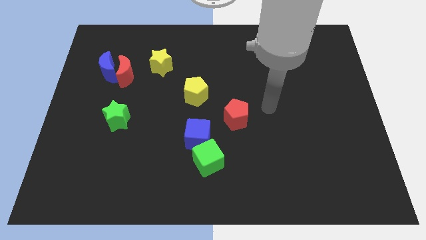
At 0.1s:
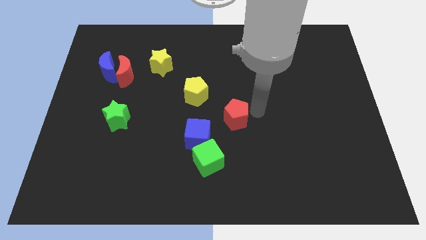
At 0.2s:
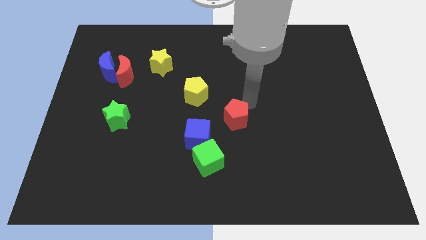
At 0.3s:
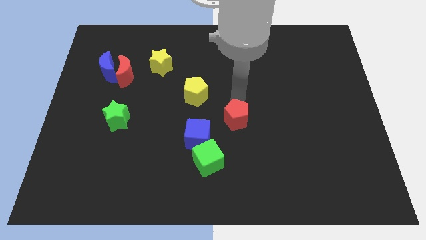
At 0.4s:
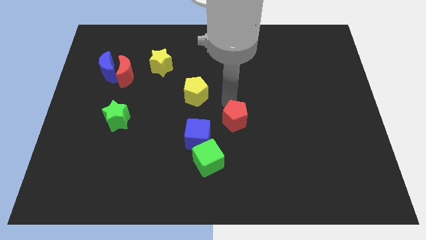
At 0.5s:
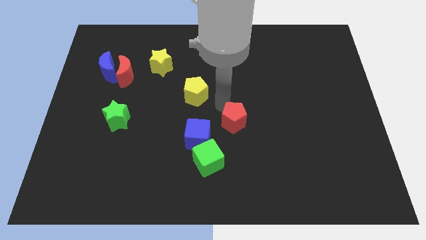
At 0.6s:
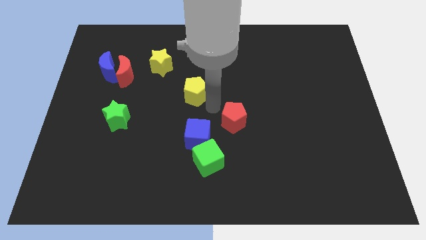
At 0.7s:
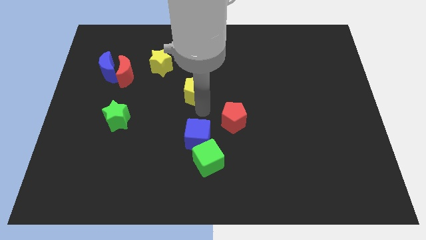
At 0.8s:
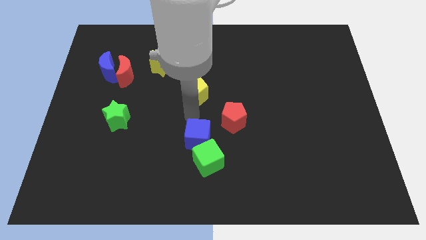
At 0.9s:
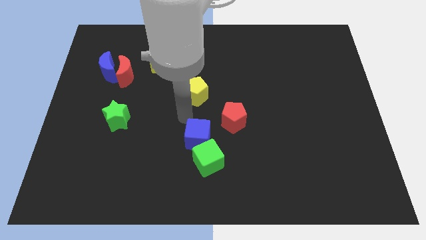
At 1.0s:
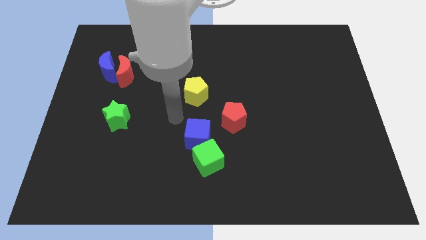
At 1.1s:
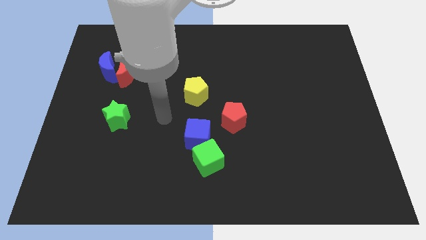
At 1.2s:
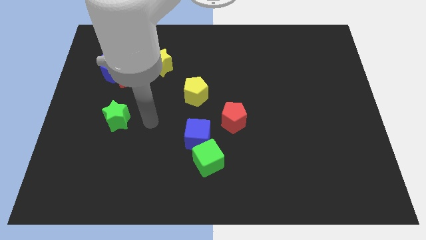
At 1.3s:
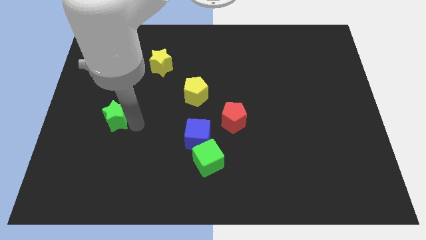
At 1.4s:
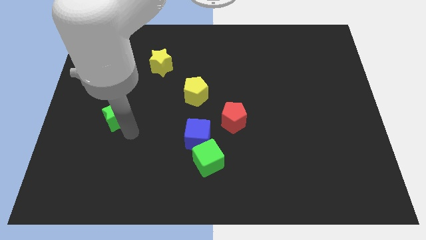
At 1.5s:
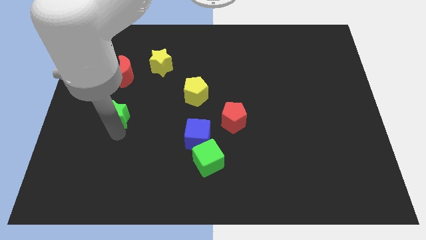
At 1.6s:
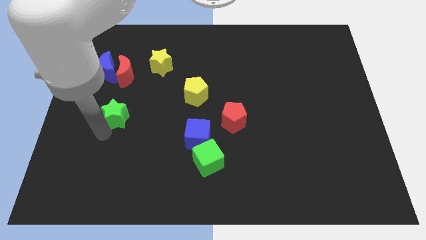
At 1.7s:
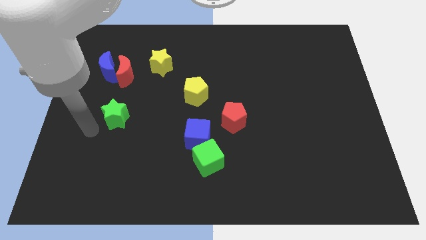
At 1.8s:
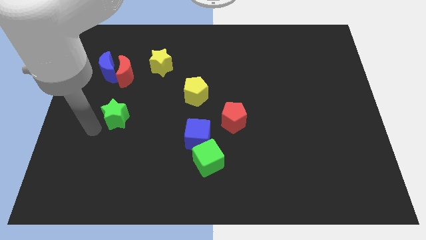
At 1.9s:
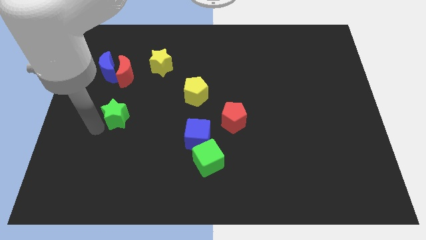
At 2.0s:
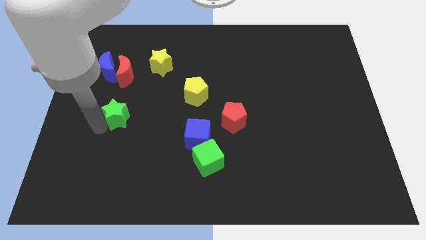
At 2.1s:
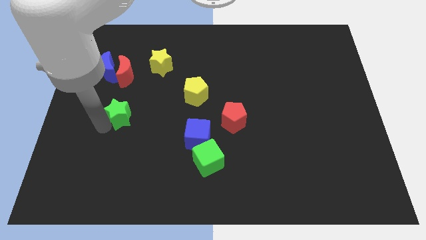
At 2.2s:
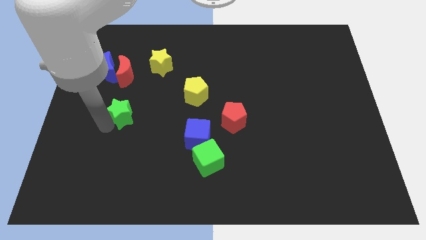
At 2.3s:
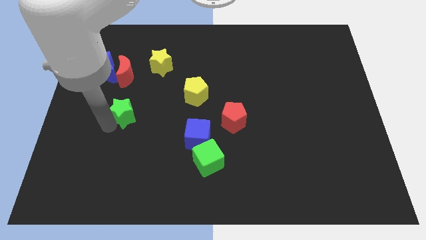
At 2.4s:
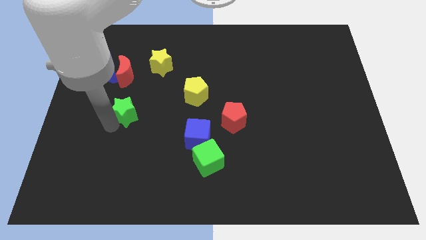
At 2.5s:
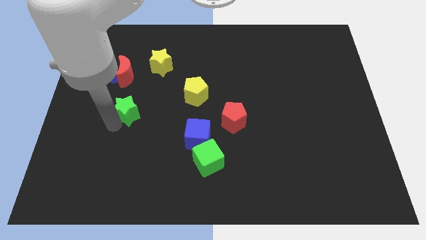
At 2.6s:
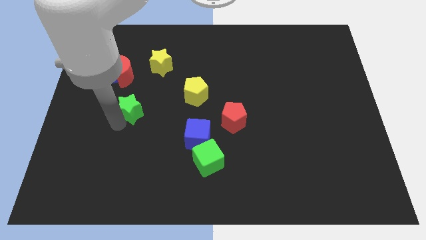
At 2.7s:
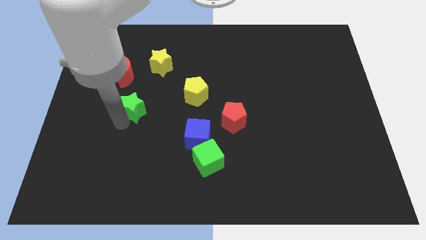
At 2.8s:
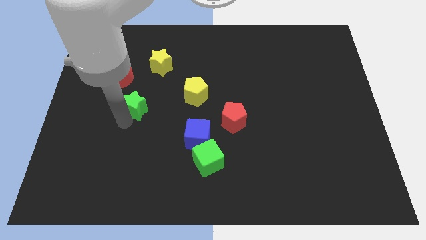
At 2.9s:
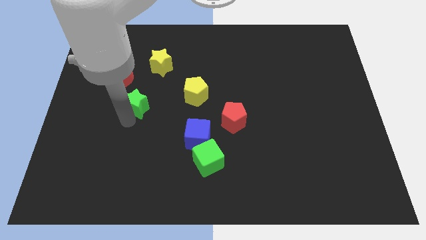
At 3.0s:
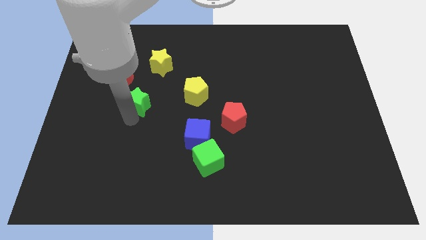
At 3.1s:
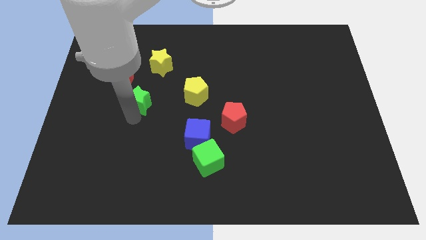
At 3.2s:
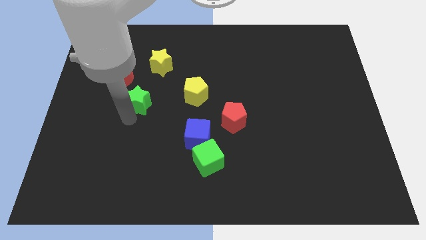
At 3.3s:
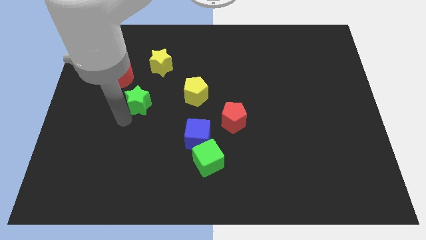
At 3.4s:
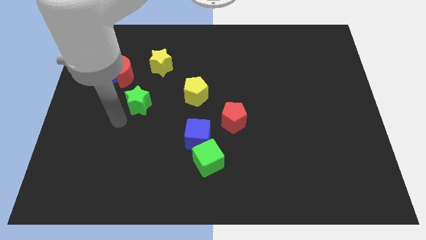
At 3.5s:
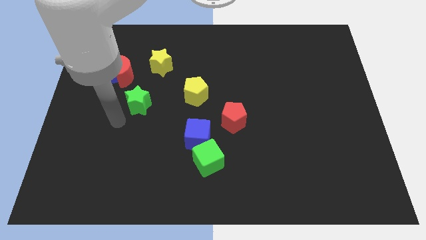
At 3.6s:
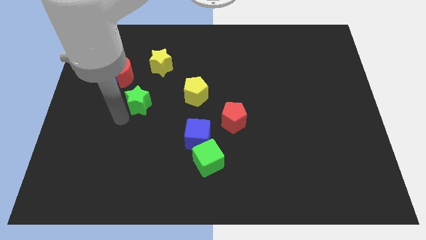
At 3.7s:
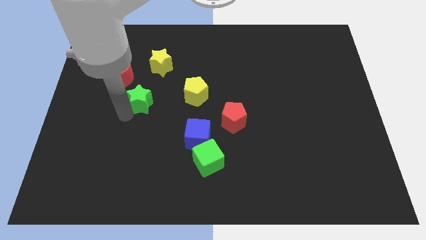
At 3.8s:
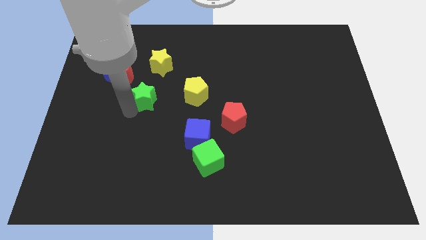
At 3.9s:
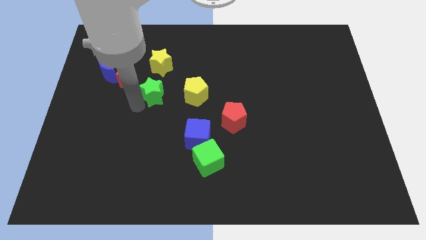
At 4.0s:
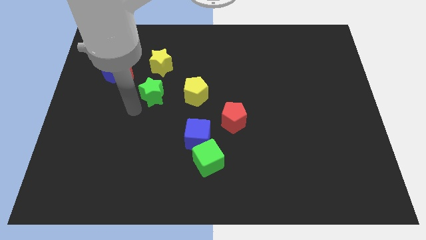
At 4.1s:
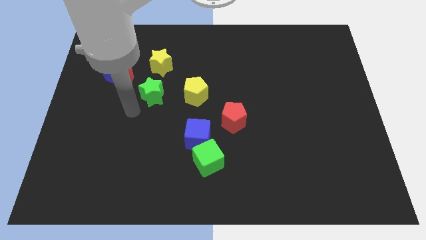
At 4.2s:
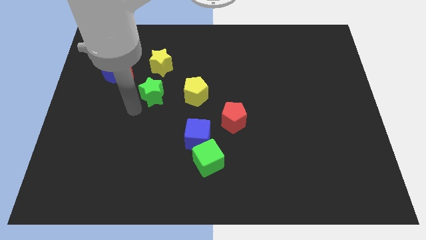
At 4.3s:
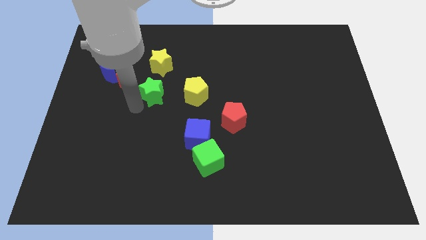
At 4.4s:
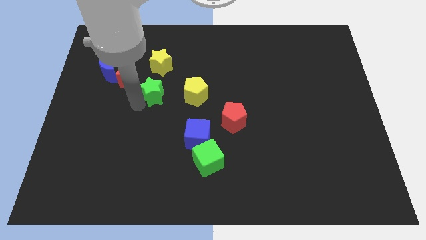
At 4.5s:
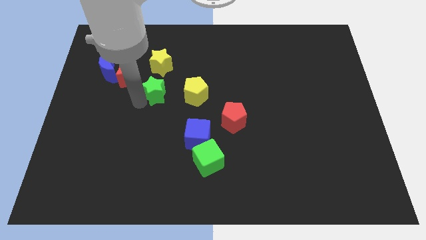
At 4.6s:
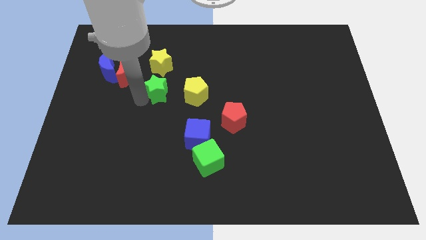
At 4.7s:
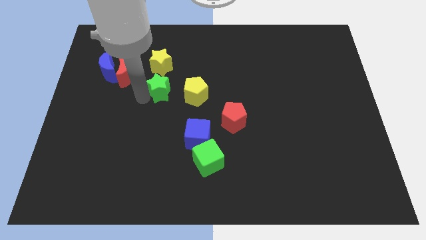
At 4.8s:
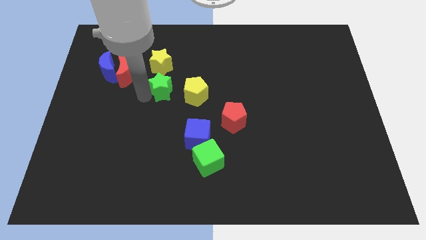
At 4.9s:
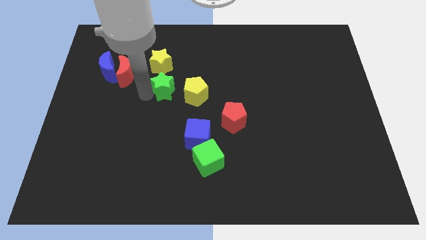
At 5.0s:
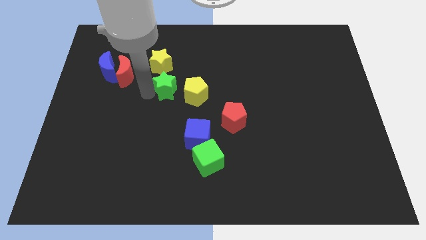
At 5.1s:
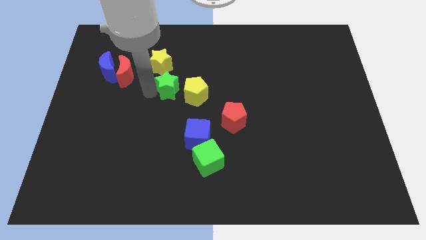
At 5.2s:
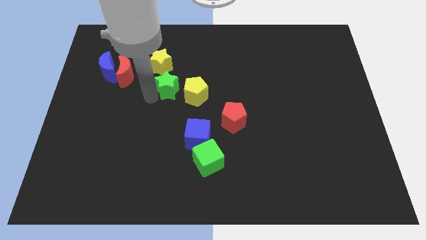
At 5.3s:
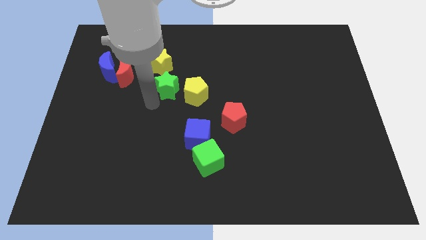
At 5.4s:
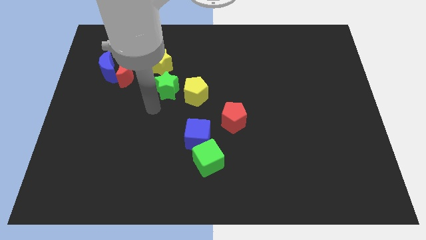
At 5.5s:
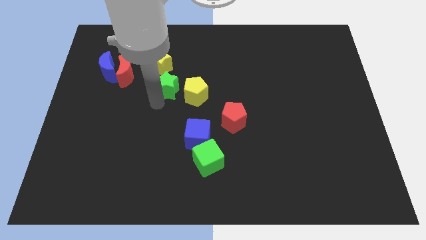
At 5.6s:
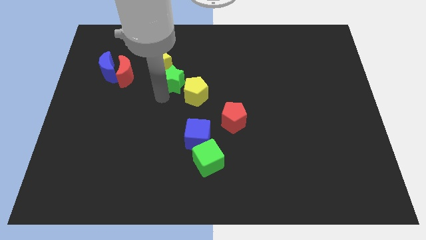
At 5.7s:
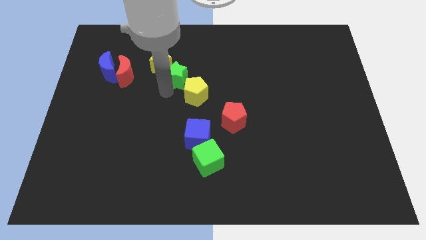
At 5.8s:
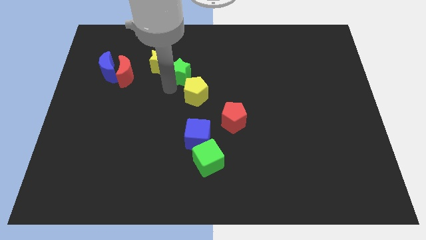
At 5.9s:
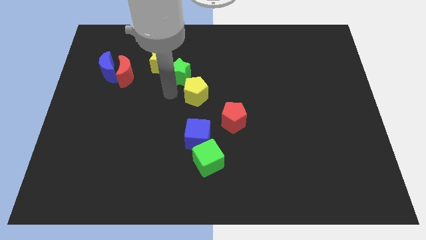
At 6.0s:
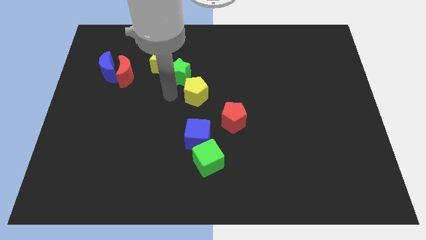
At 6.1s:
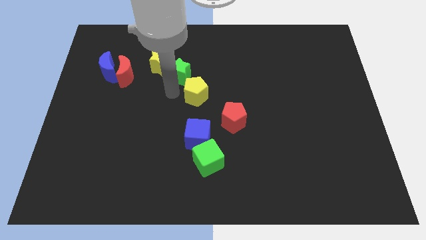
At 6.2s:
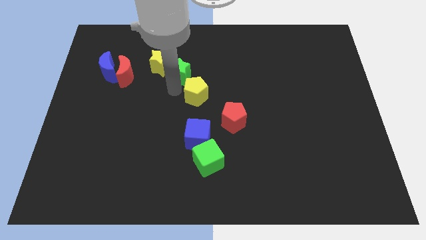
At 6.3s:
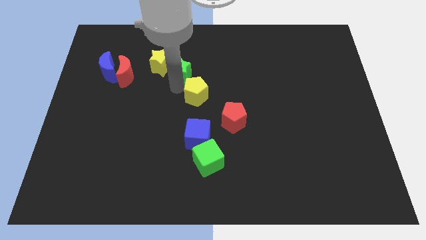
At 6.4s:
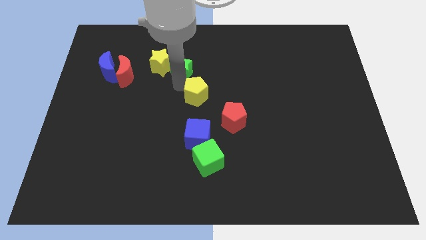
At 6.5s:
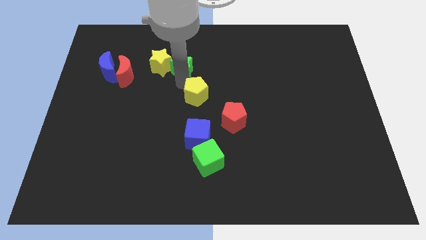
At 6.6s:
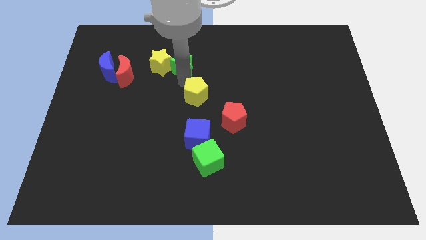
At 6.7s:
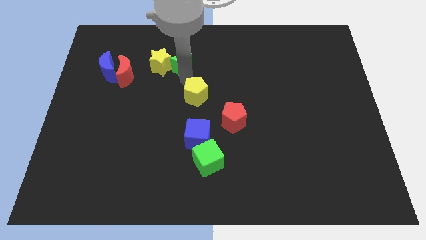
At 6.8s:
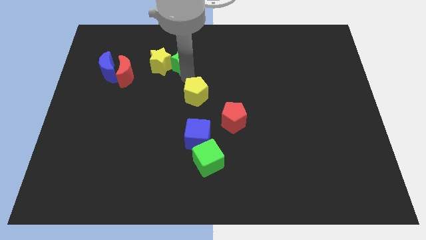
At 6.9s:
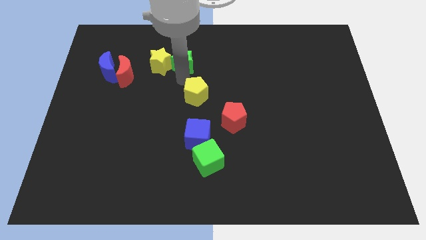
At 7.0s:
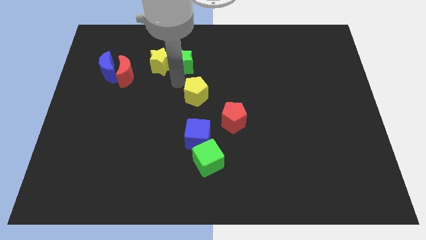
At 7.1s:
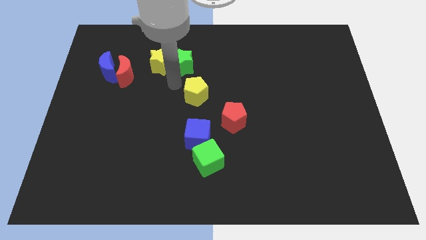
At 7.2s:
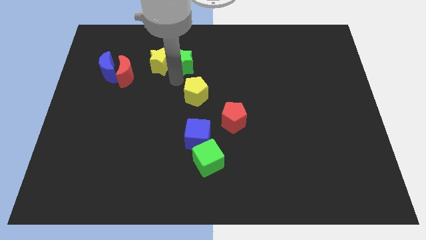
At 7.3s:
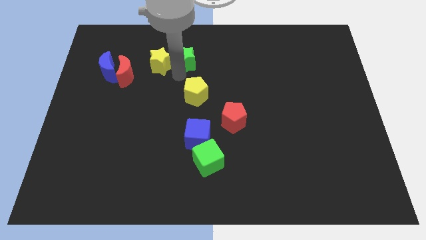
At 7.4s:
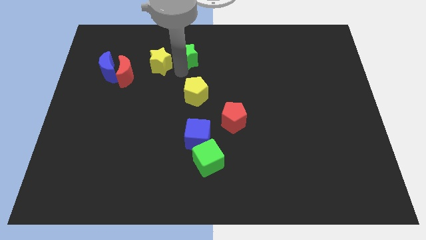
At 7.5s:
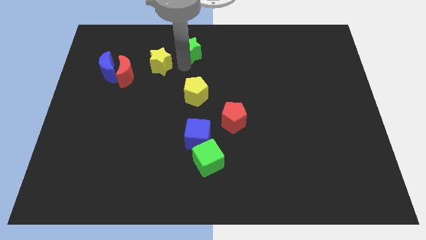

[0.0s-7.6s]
push the green star to the towards your base
